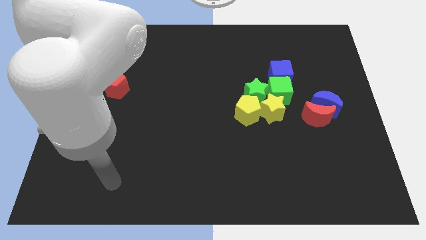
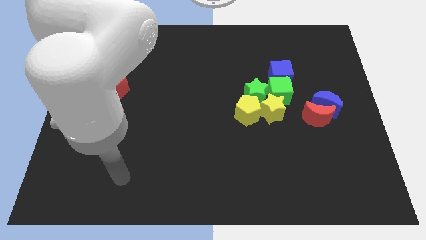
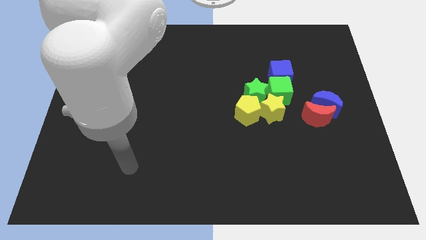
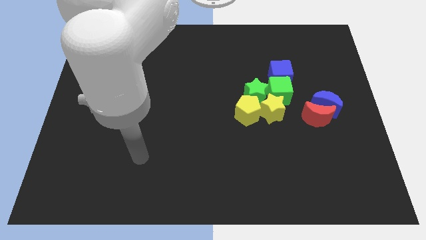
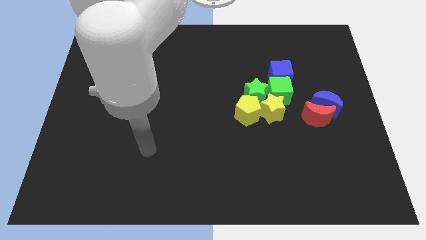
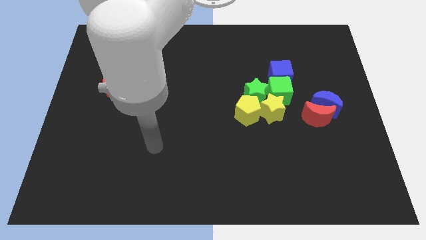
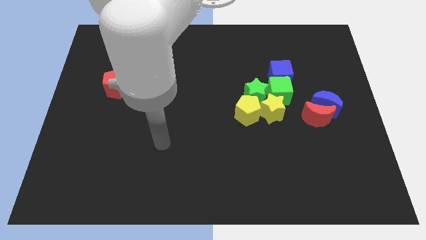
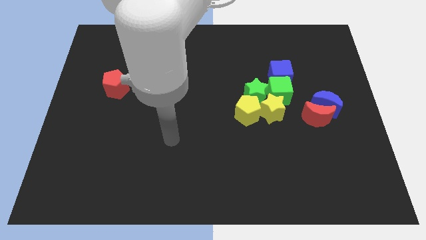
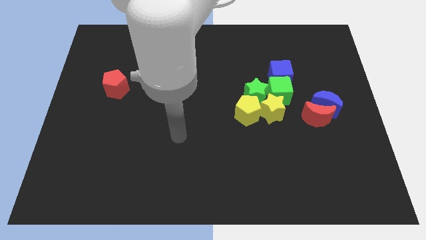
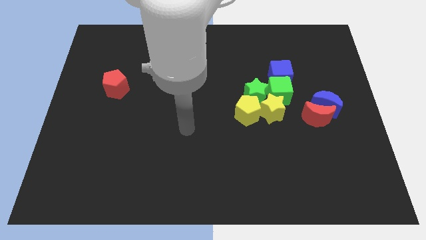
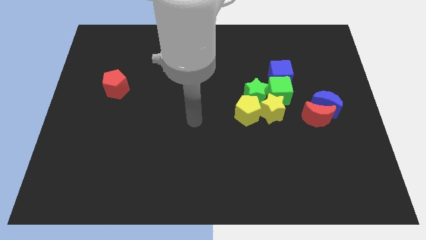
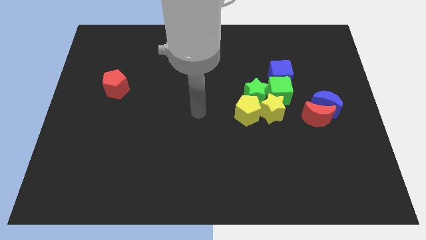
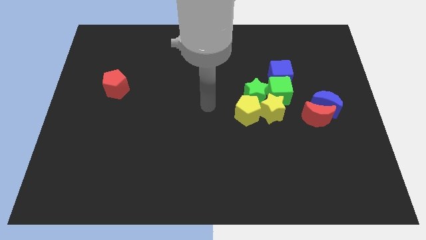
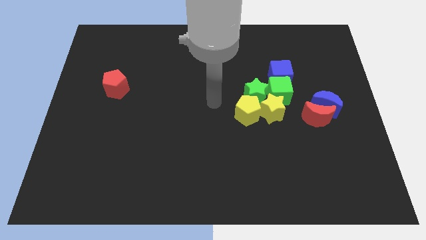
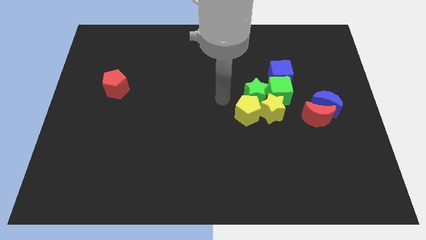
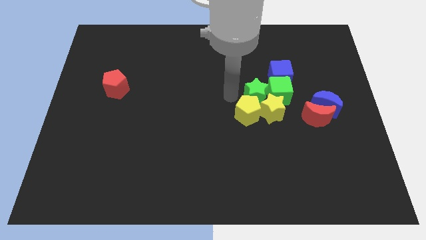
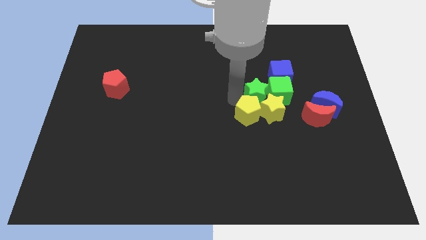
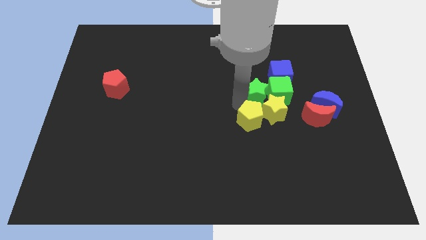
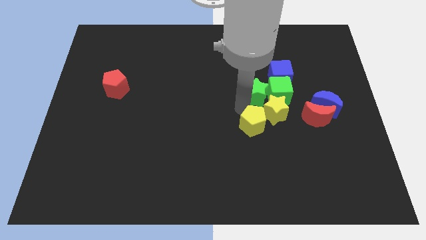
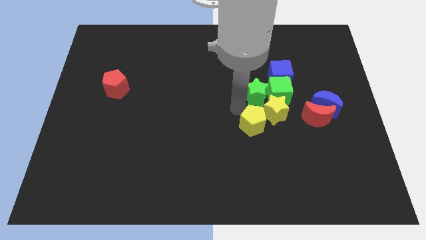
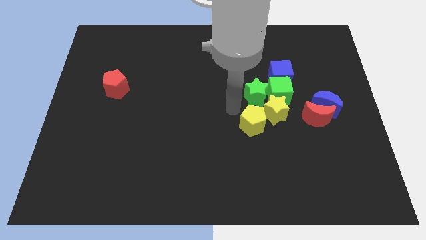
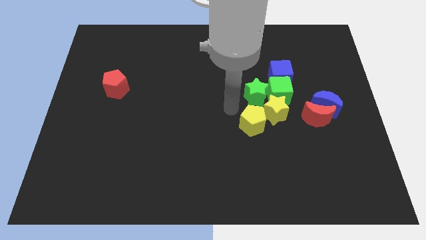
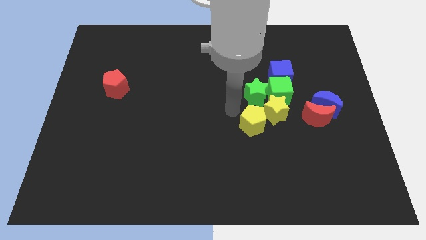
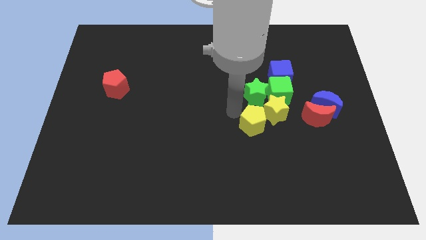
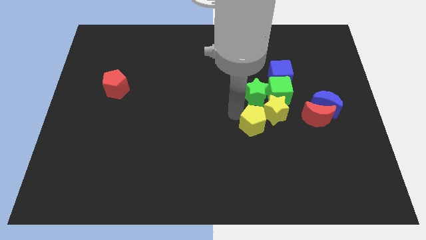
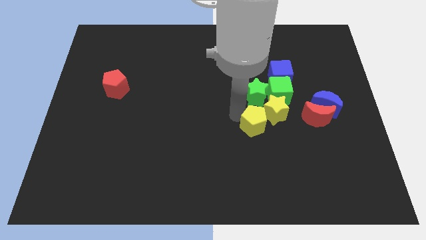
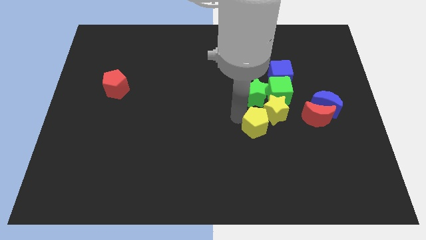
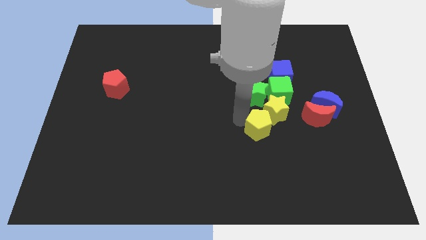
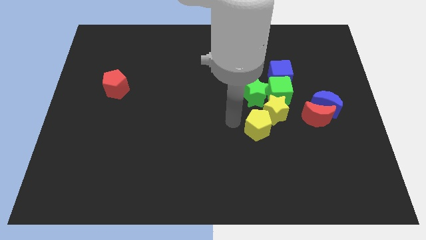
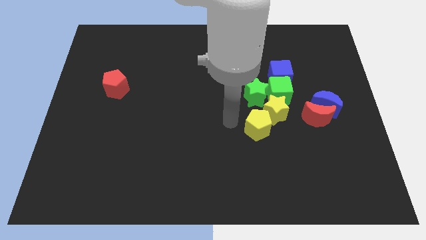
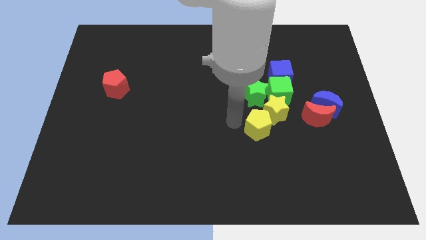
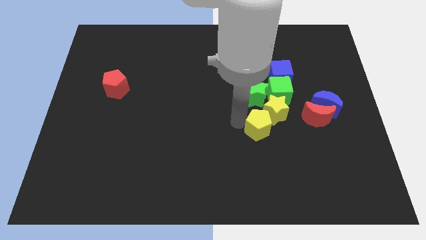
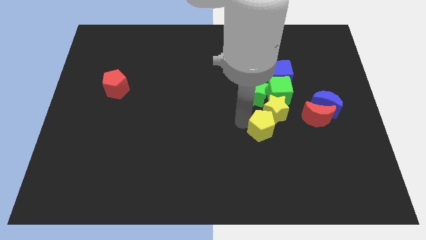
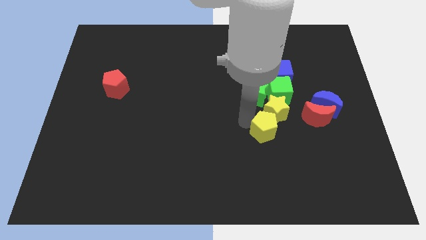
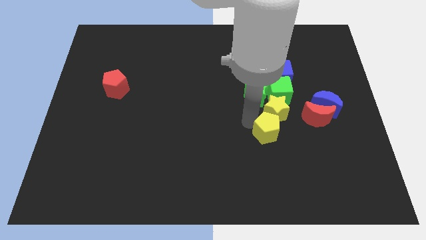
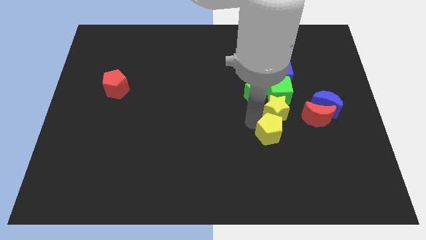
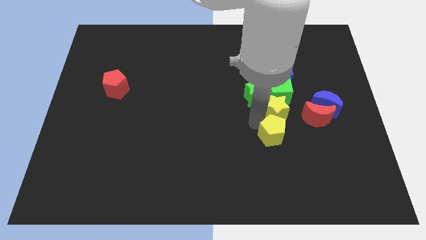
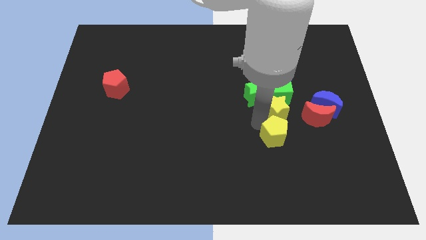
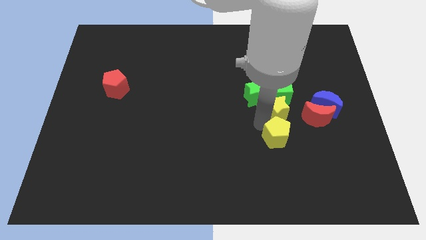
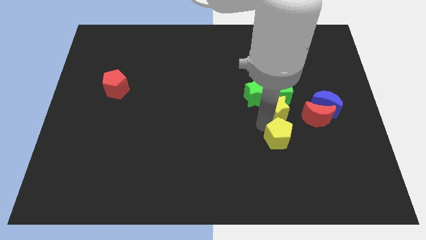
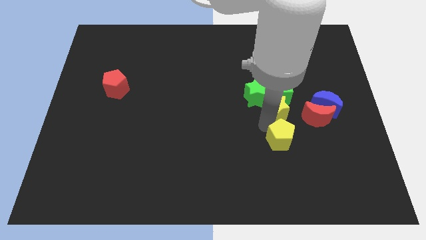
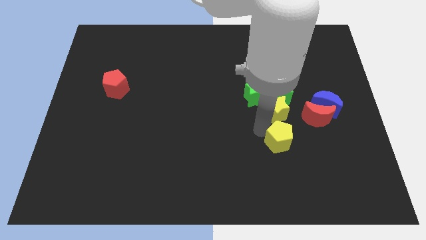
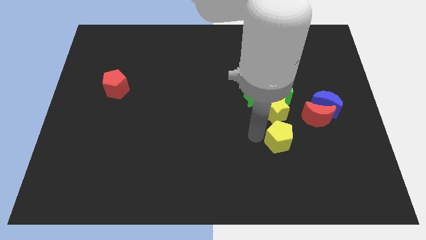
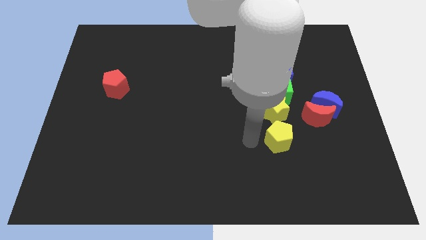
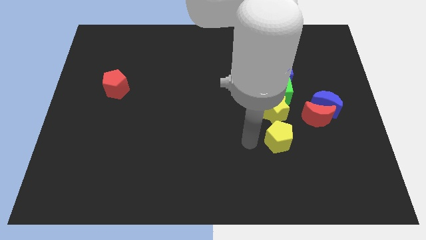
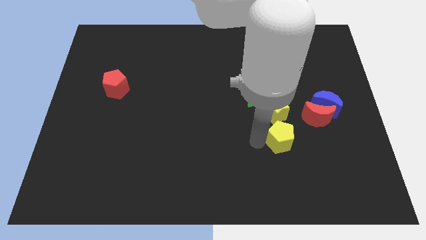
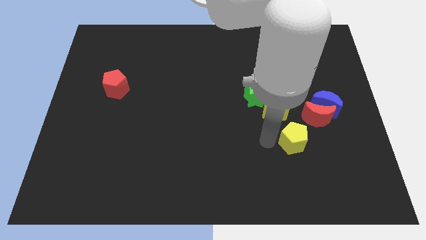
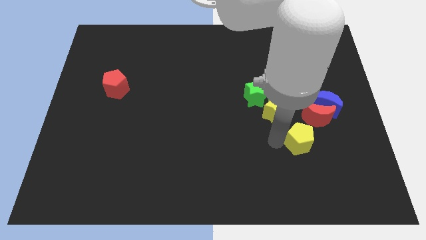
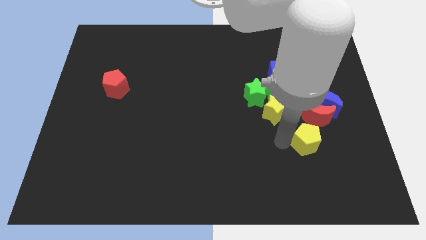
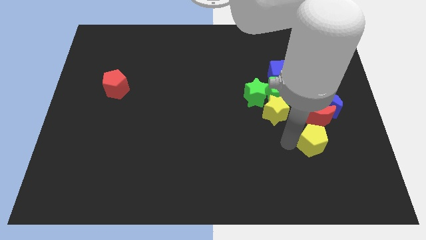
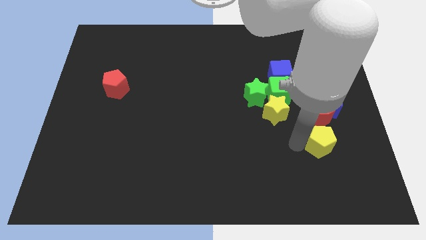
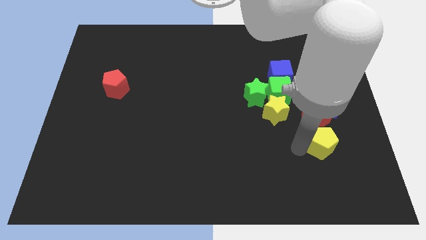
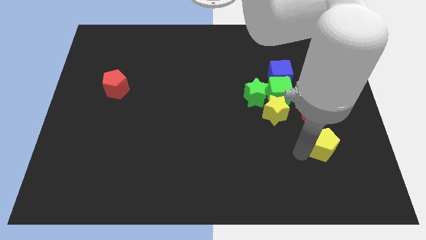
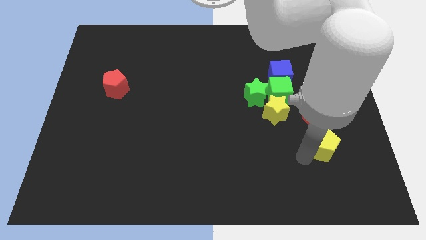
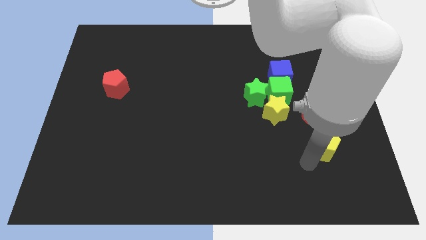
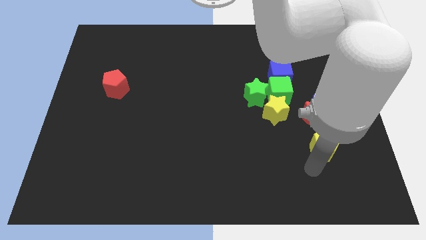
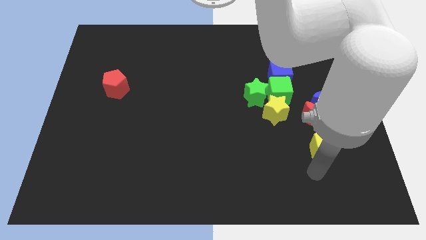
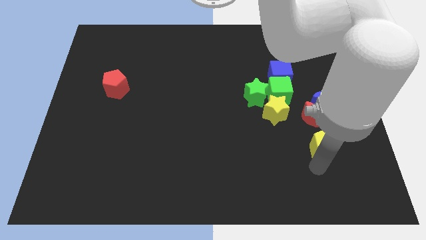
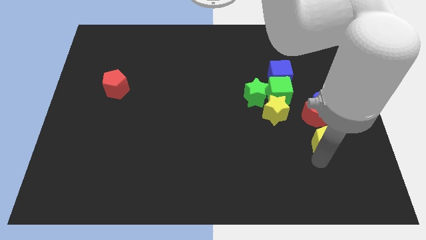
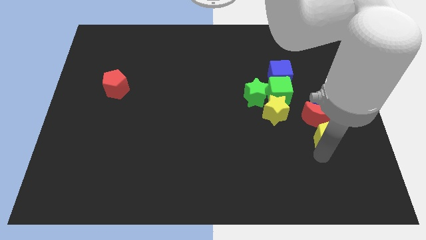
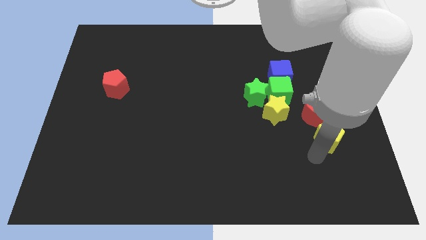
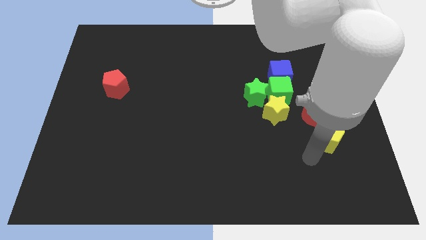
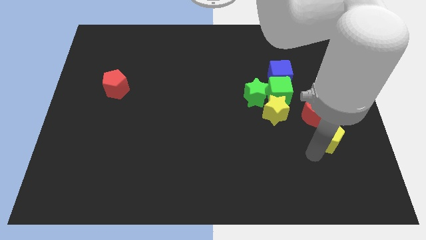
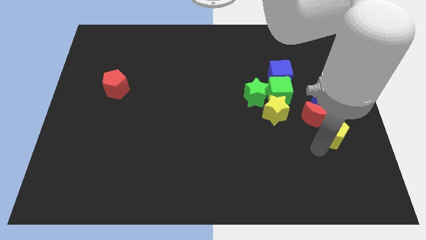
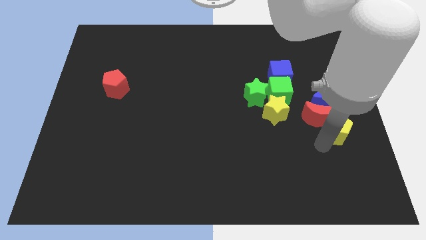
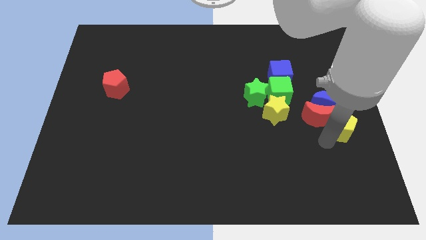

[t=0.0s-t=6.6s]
slide the yellow pentagon to the center right
